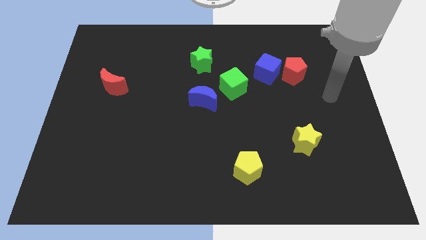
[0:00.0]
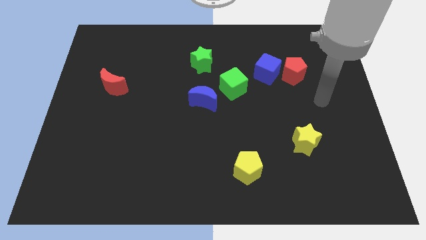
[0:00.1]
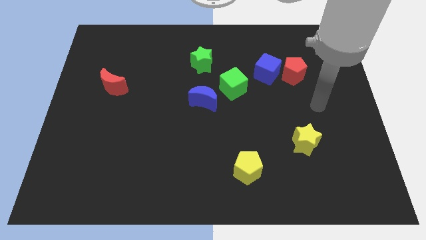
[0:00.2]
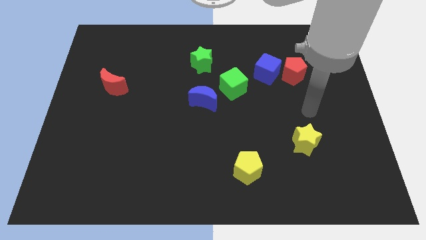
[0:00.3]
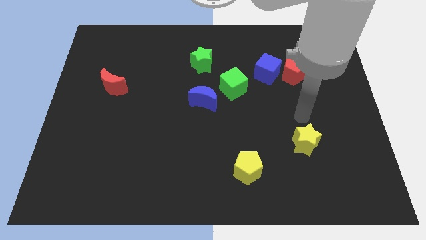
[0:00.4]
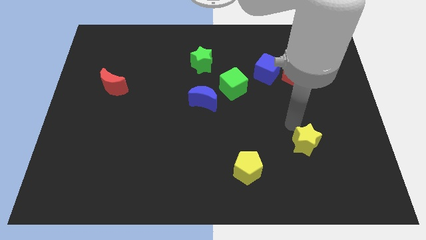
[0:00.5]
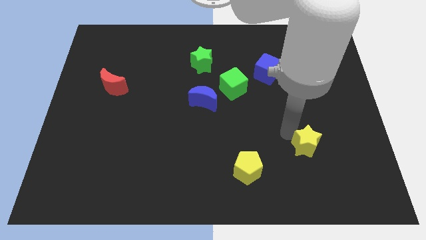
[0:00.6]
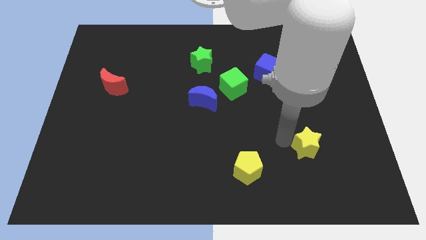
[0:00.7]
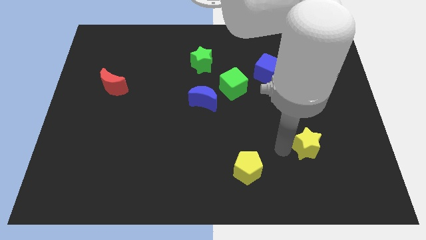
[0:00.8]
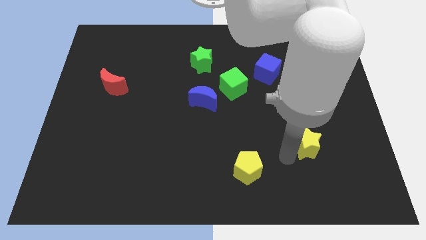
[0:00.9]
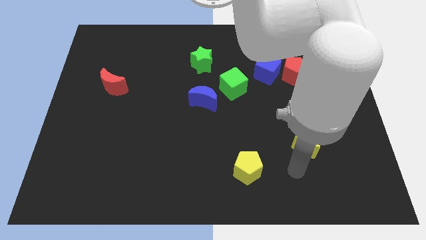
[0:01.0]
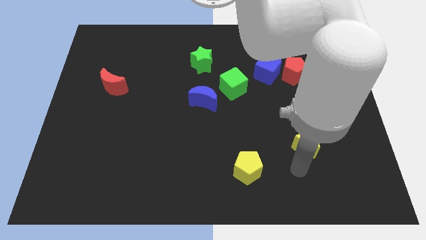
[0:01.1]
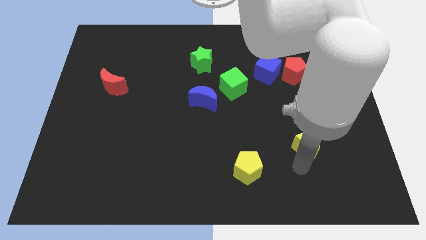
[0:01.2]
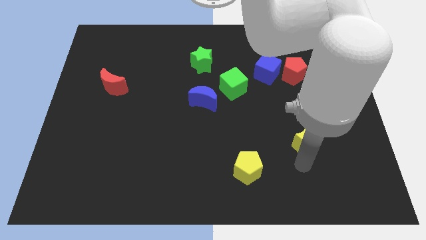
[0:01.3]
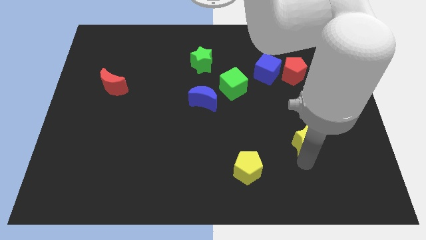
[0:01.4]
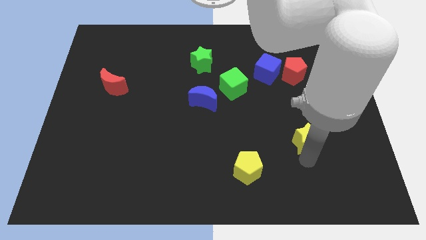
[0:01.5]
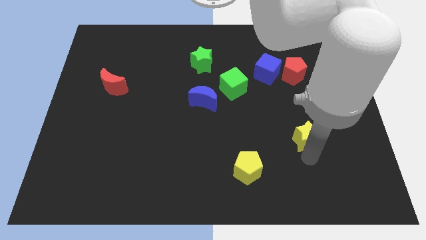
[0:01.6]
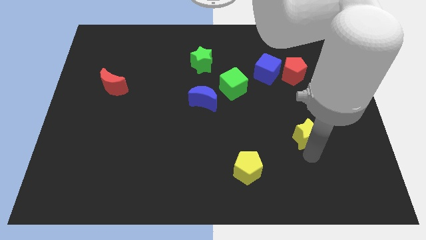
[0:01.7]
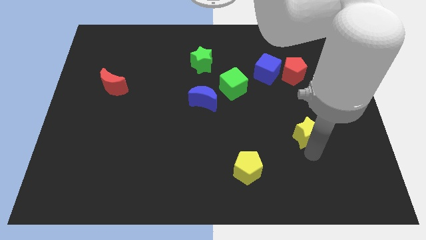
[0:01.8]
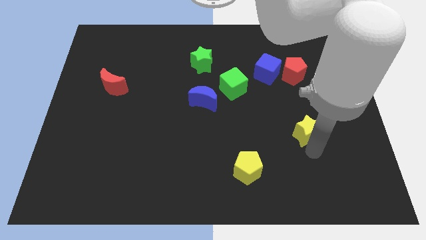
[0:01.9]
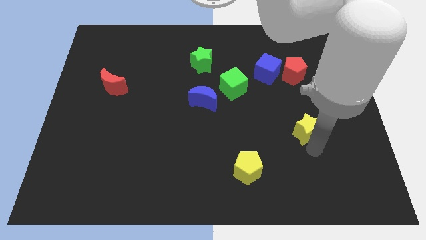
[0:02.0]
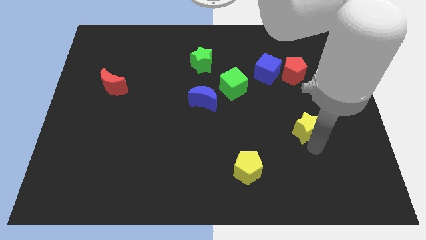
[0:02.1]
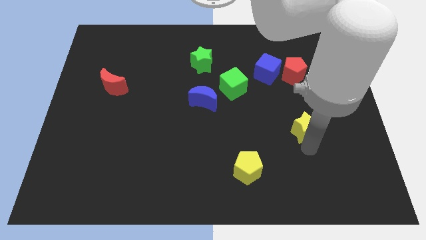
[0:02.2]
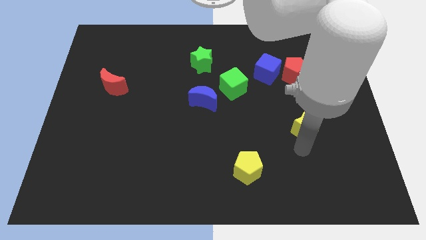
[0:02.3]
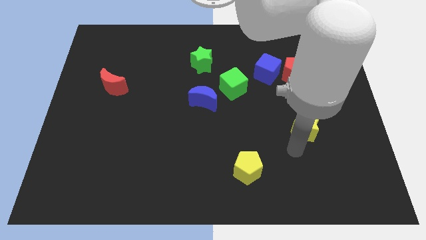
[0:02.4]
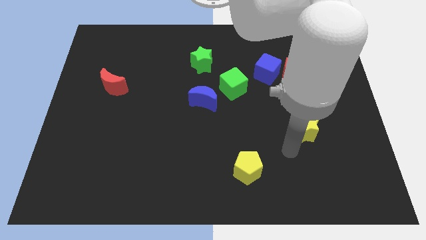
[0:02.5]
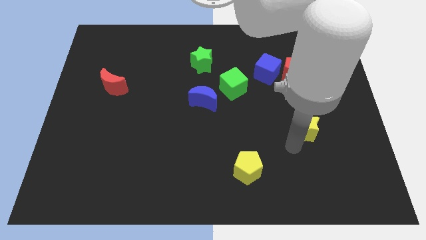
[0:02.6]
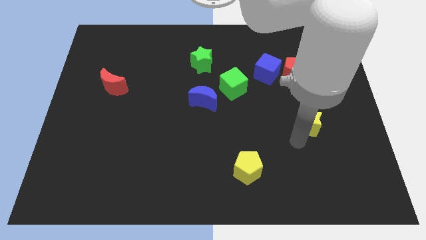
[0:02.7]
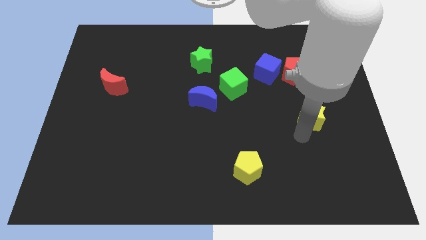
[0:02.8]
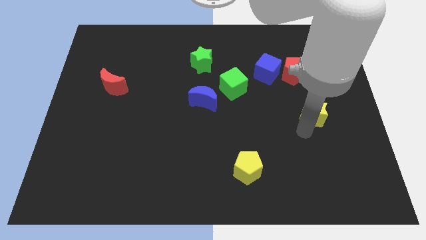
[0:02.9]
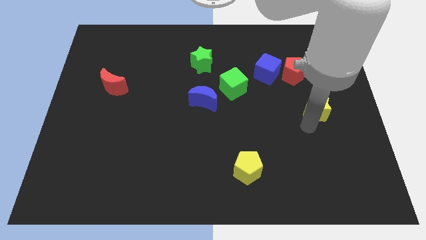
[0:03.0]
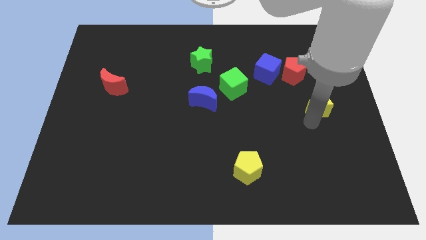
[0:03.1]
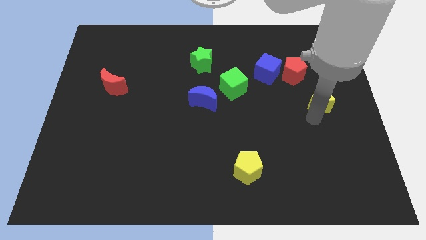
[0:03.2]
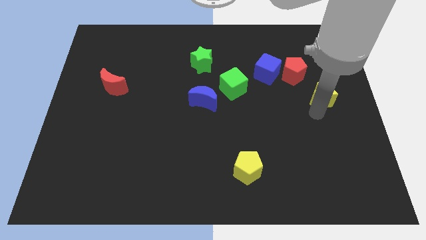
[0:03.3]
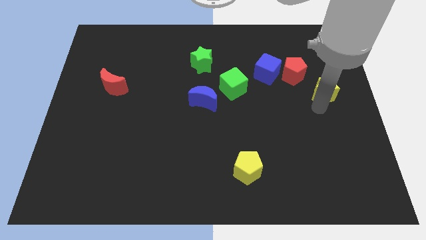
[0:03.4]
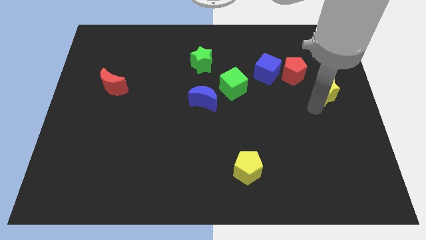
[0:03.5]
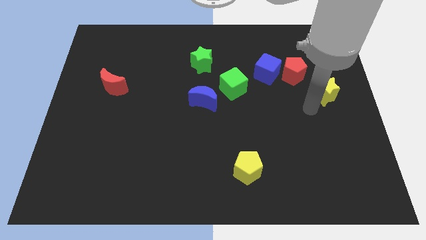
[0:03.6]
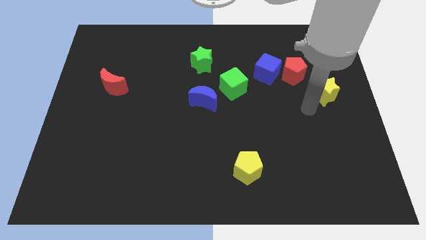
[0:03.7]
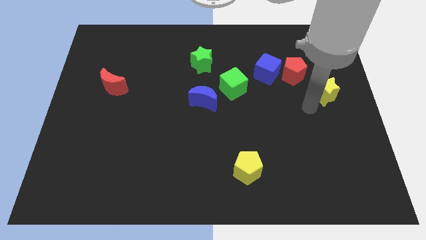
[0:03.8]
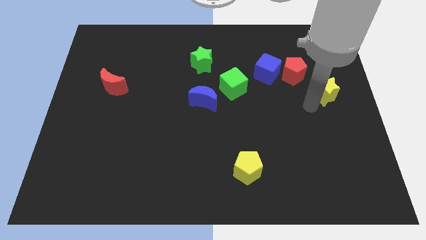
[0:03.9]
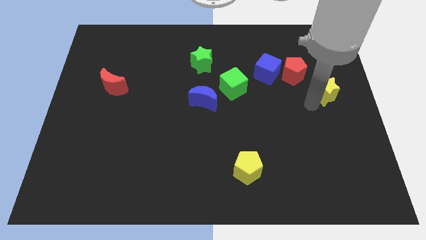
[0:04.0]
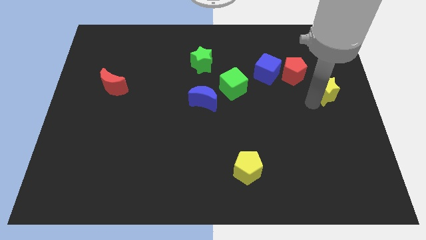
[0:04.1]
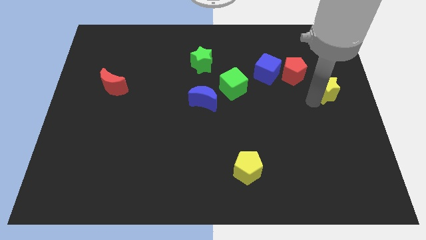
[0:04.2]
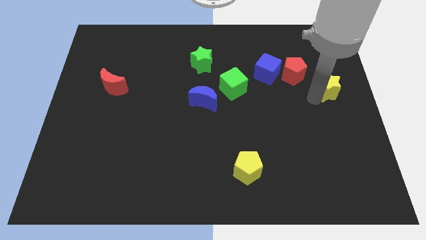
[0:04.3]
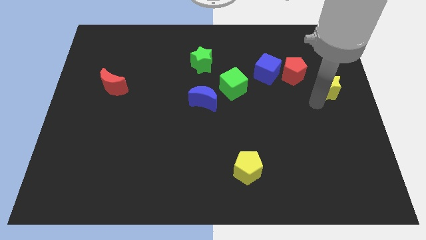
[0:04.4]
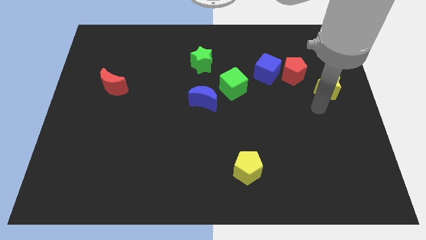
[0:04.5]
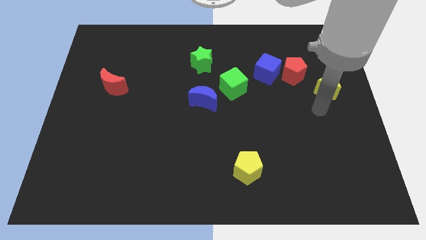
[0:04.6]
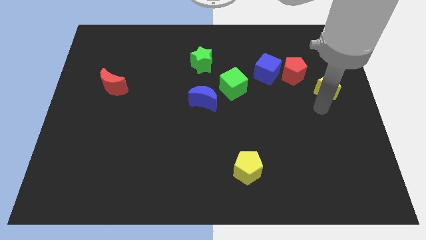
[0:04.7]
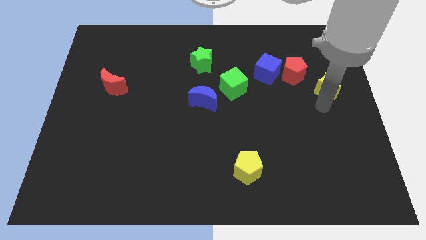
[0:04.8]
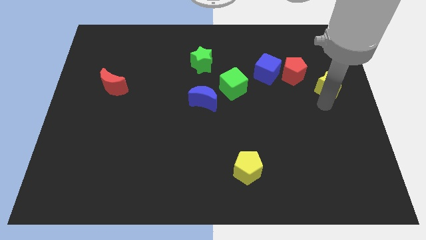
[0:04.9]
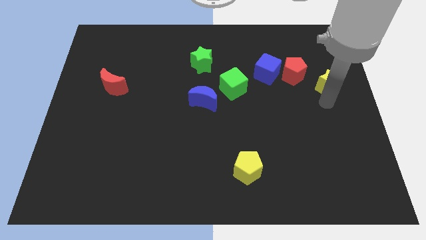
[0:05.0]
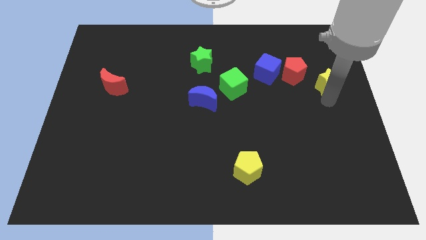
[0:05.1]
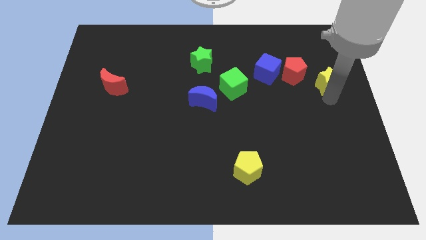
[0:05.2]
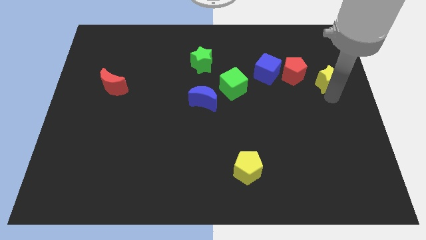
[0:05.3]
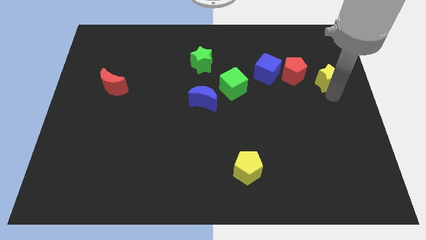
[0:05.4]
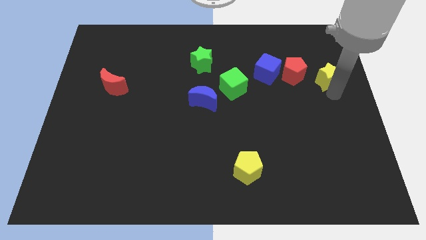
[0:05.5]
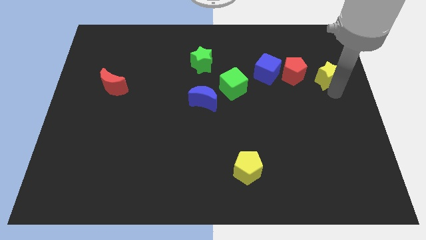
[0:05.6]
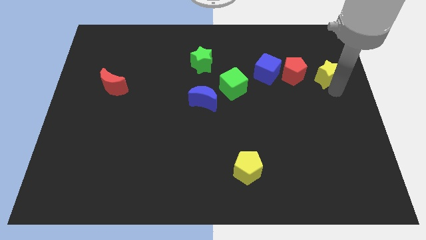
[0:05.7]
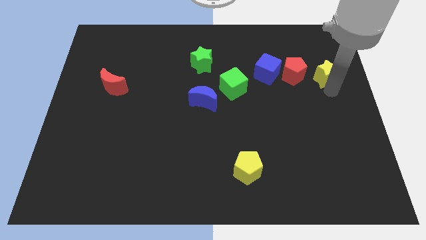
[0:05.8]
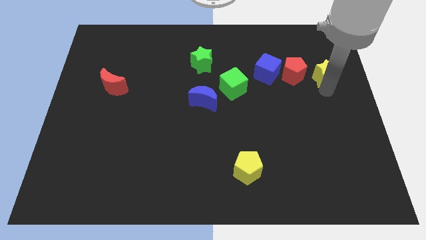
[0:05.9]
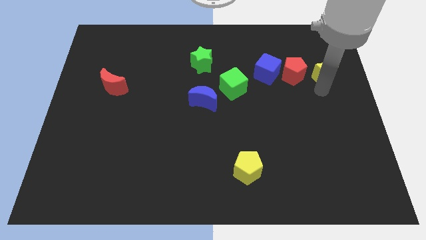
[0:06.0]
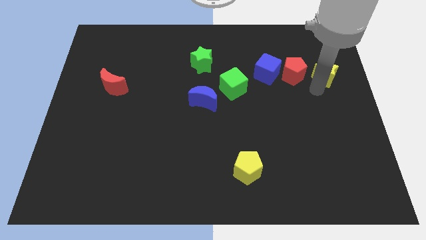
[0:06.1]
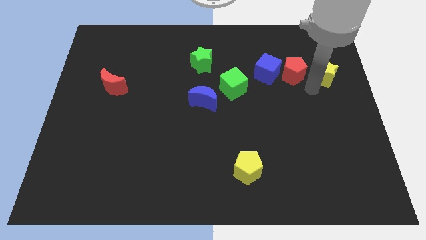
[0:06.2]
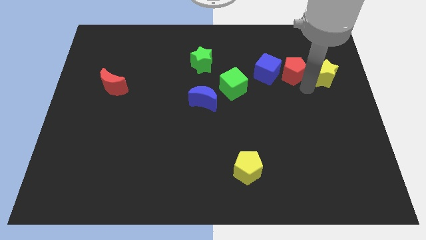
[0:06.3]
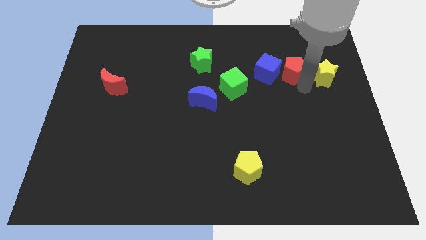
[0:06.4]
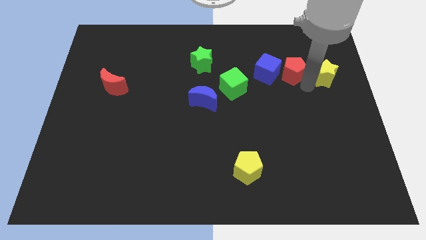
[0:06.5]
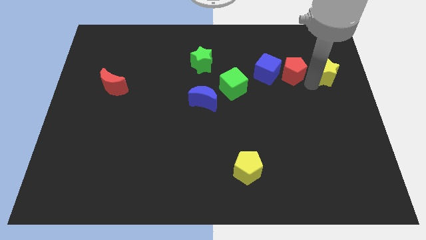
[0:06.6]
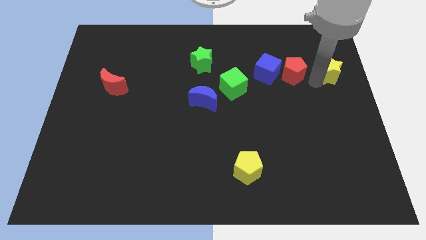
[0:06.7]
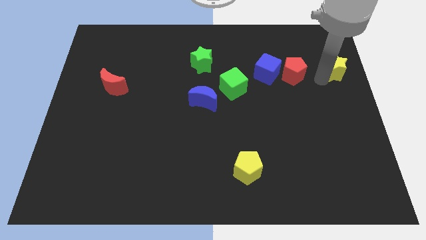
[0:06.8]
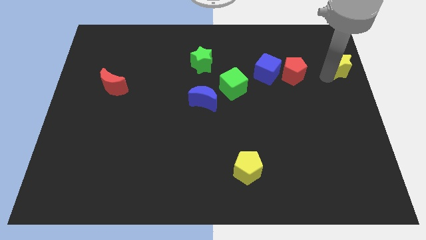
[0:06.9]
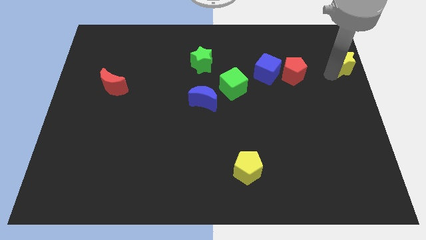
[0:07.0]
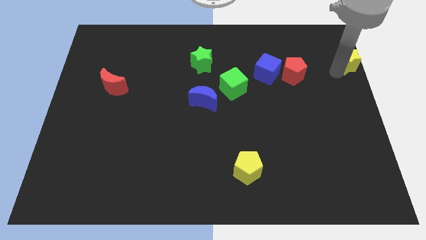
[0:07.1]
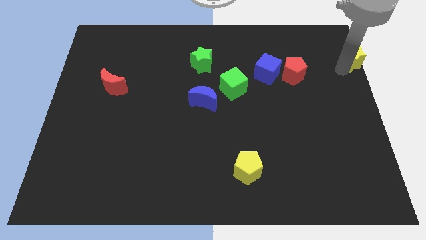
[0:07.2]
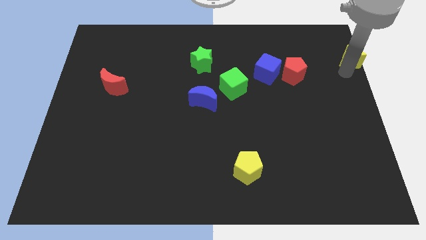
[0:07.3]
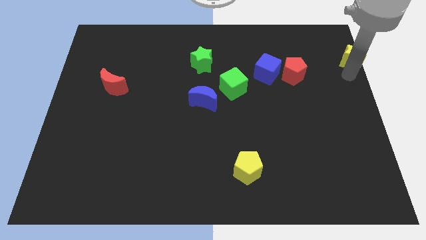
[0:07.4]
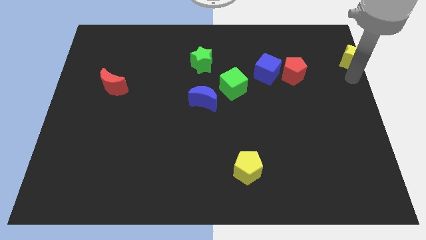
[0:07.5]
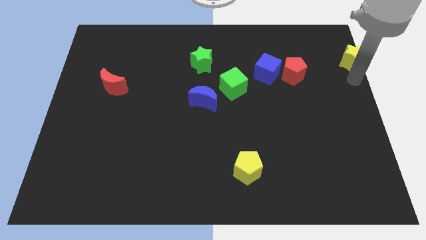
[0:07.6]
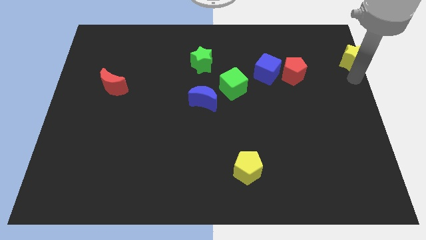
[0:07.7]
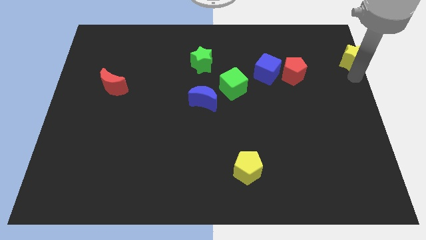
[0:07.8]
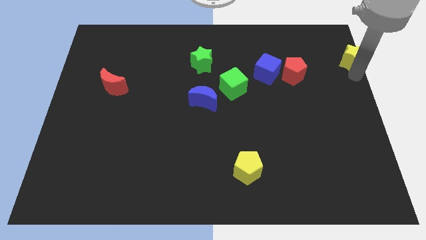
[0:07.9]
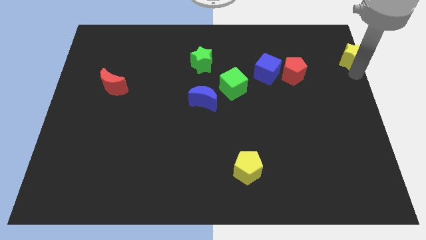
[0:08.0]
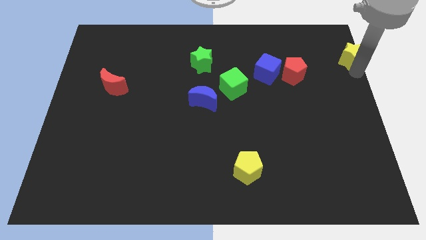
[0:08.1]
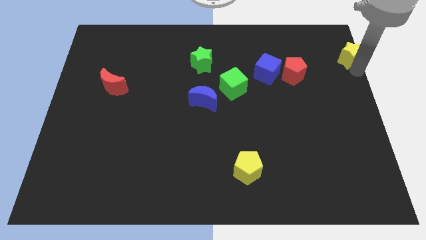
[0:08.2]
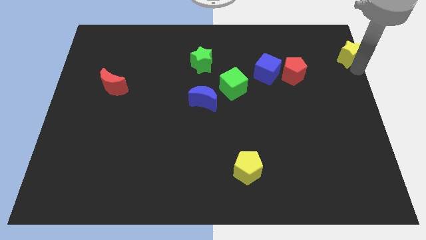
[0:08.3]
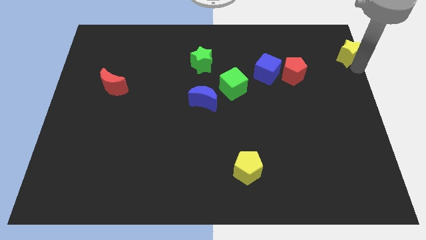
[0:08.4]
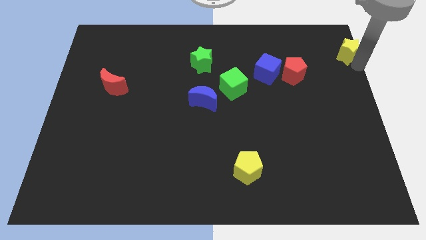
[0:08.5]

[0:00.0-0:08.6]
put the yellow star to the upper right corner
